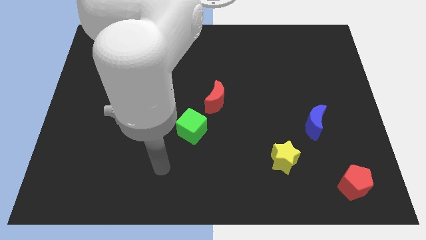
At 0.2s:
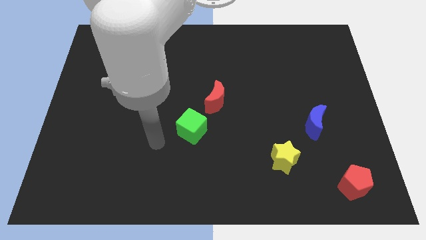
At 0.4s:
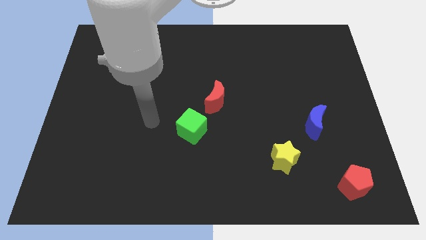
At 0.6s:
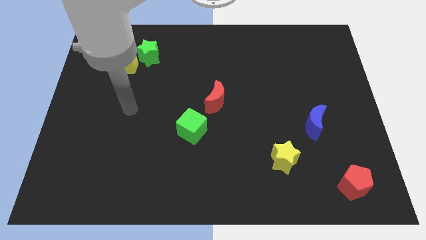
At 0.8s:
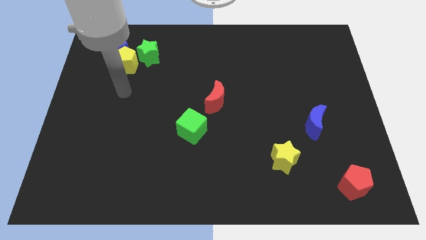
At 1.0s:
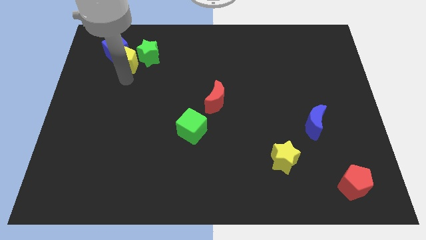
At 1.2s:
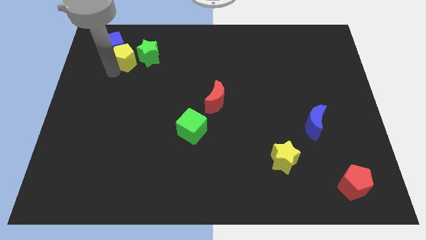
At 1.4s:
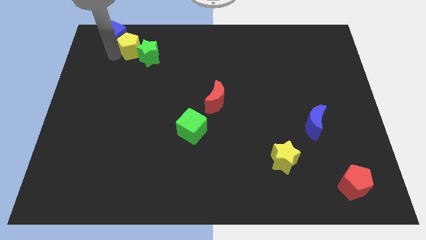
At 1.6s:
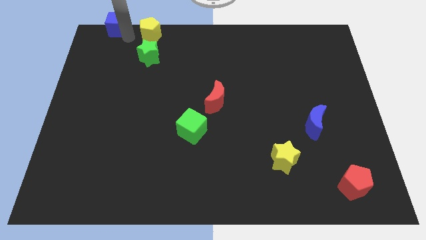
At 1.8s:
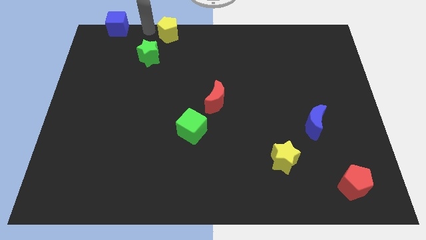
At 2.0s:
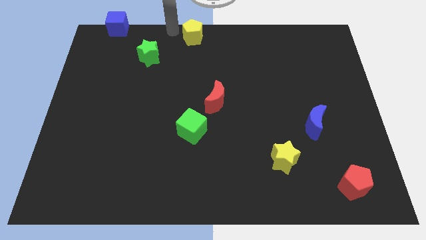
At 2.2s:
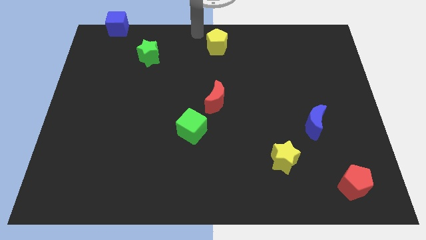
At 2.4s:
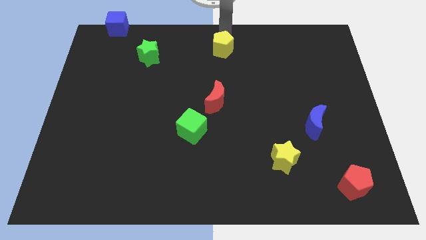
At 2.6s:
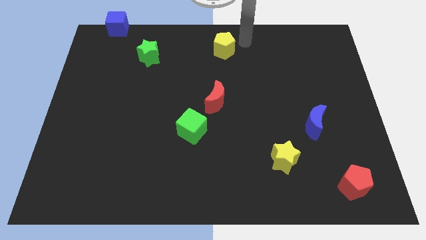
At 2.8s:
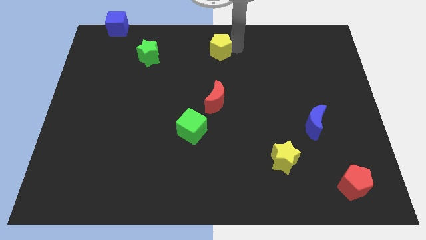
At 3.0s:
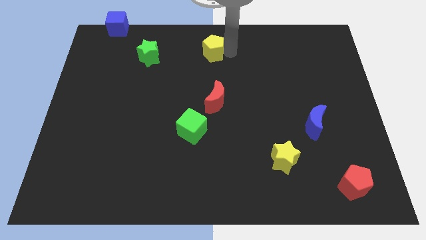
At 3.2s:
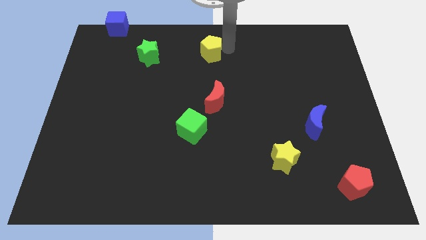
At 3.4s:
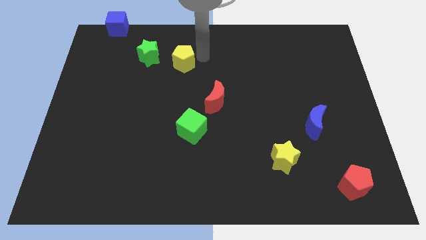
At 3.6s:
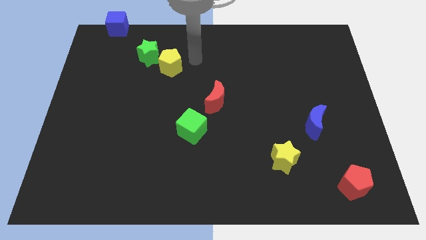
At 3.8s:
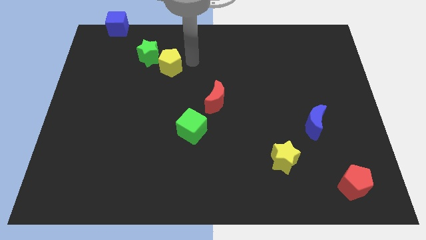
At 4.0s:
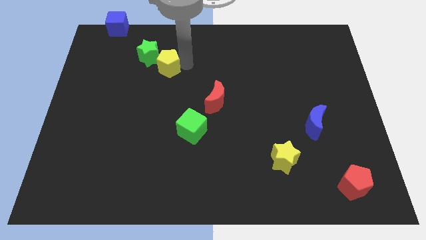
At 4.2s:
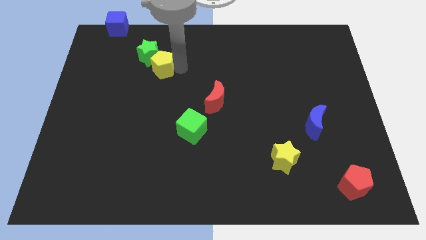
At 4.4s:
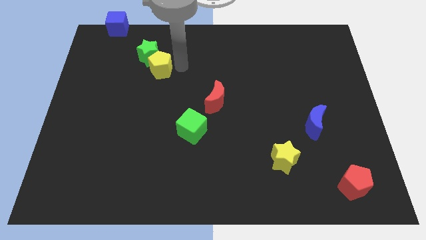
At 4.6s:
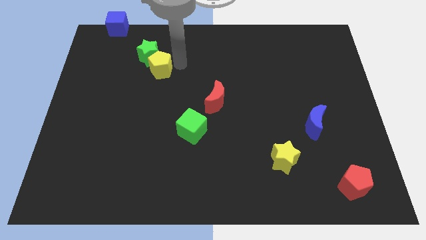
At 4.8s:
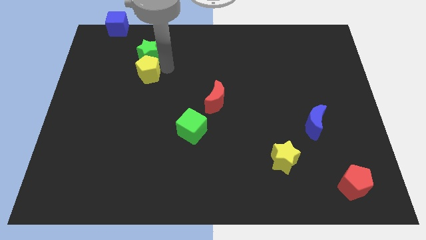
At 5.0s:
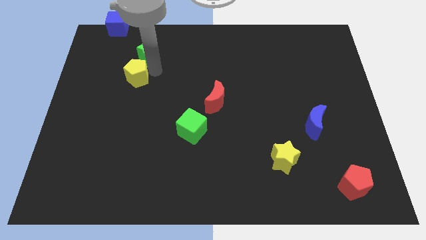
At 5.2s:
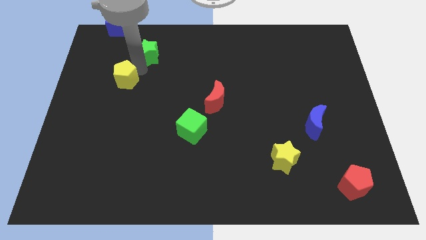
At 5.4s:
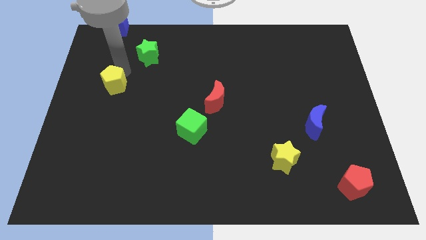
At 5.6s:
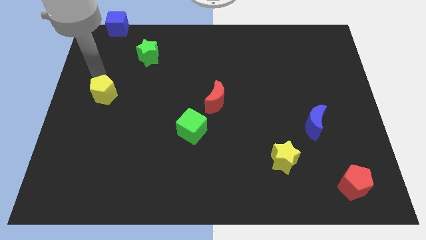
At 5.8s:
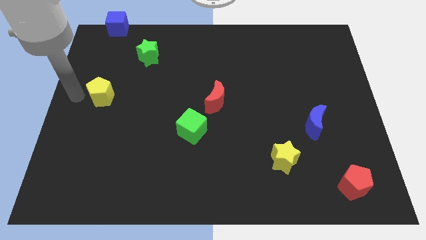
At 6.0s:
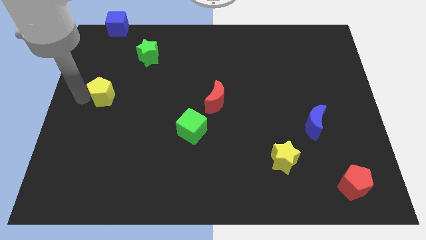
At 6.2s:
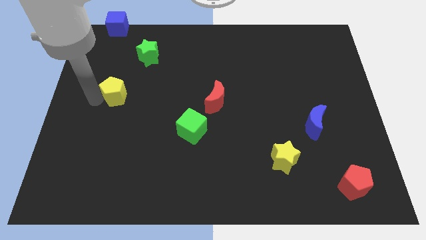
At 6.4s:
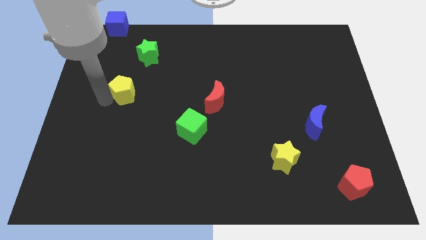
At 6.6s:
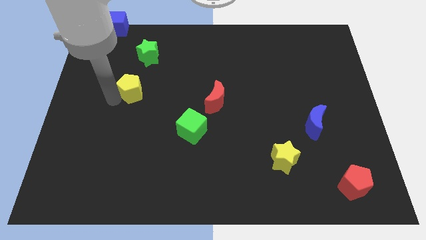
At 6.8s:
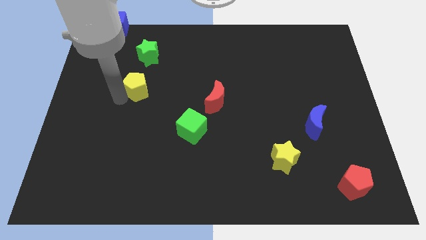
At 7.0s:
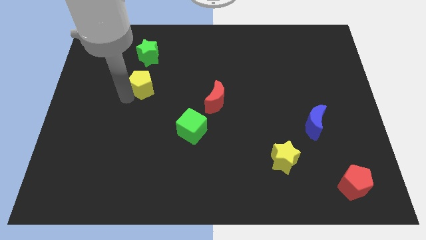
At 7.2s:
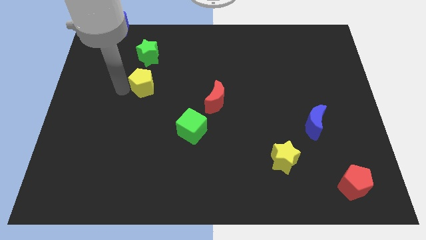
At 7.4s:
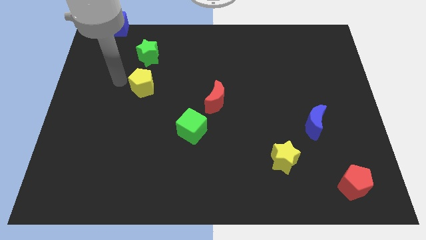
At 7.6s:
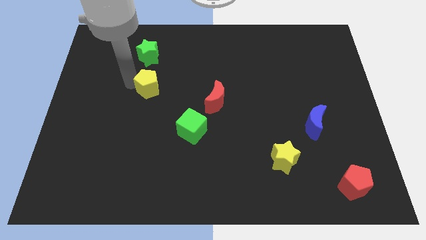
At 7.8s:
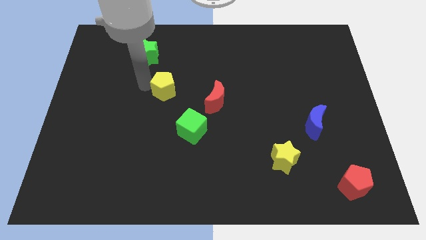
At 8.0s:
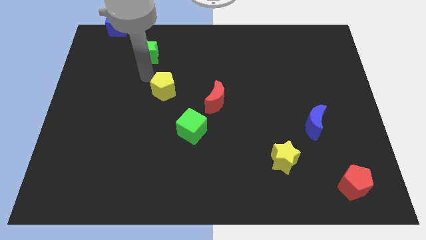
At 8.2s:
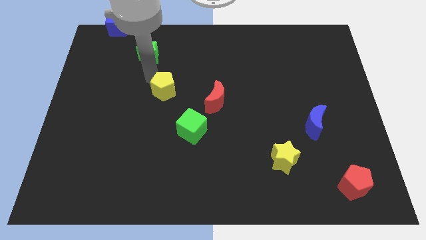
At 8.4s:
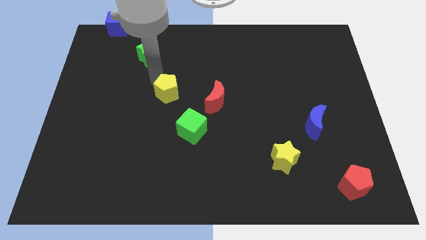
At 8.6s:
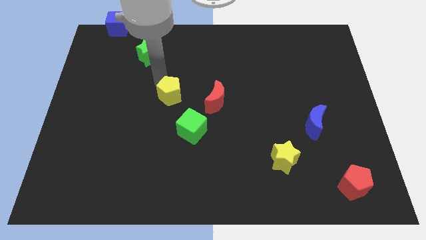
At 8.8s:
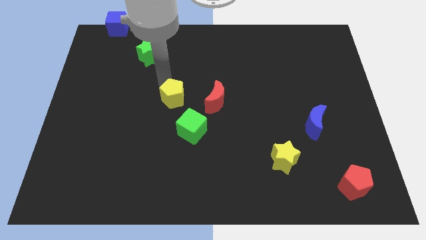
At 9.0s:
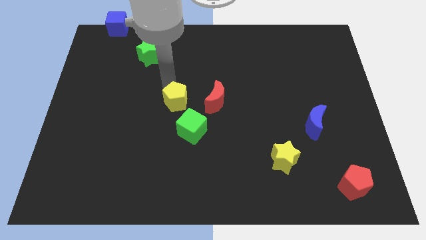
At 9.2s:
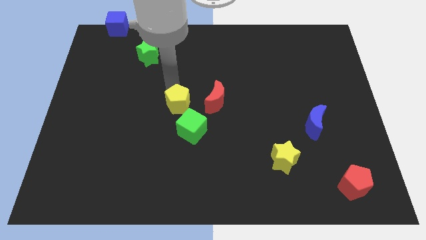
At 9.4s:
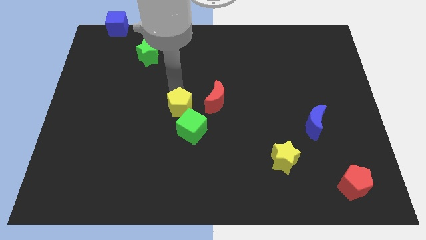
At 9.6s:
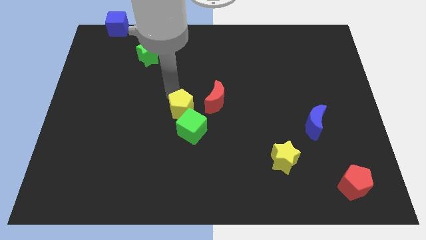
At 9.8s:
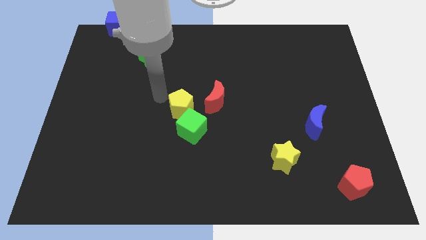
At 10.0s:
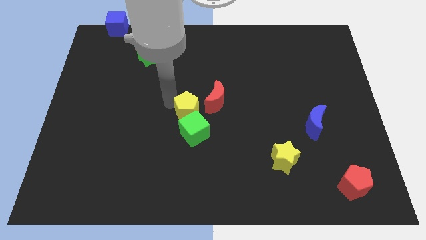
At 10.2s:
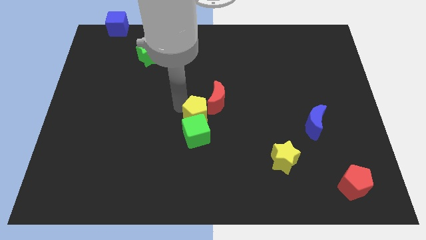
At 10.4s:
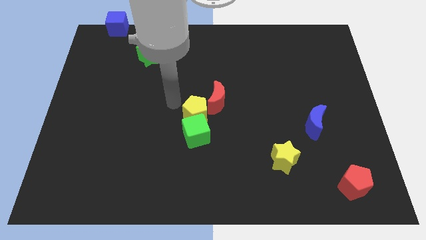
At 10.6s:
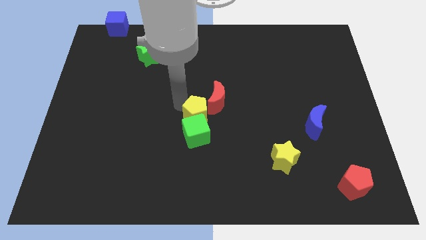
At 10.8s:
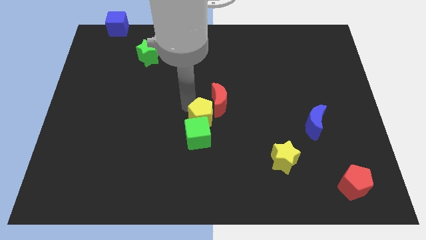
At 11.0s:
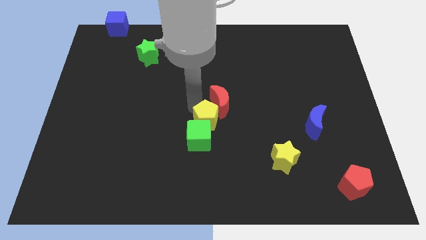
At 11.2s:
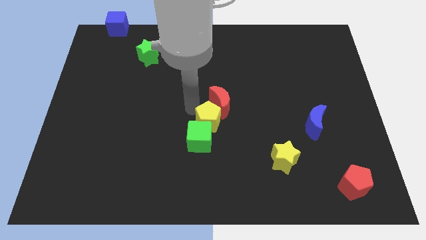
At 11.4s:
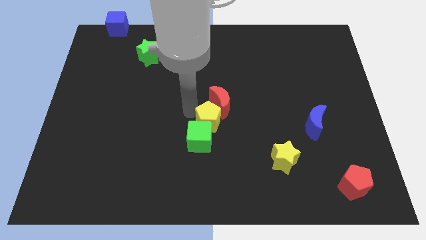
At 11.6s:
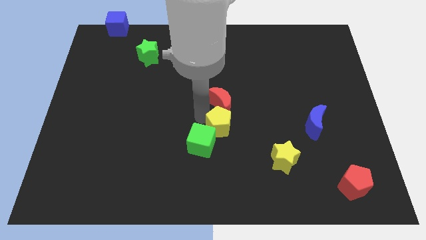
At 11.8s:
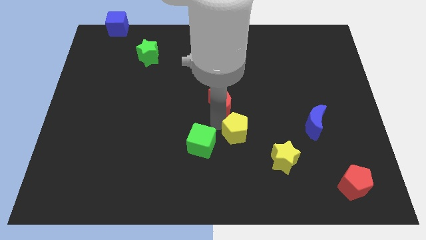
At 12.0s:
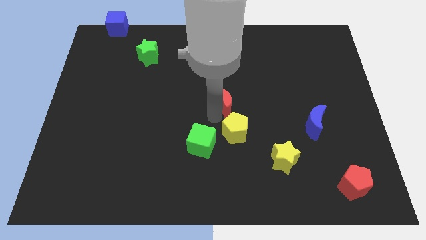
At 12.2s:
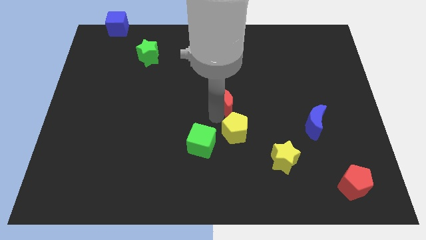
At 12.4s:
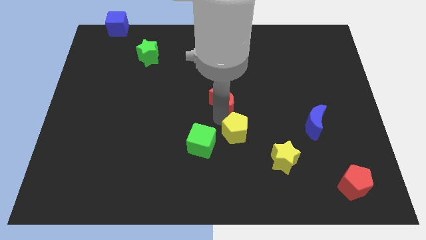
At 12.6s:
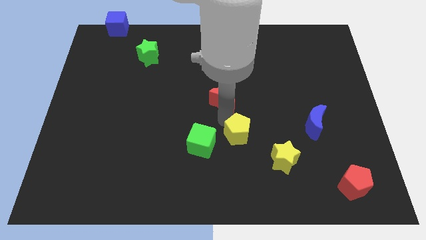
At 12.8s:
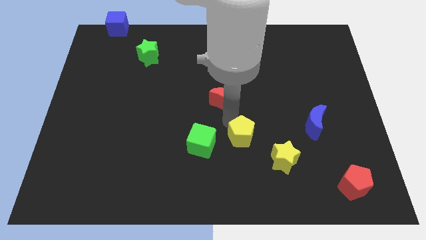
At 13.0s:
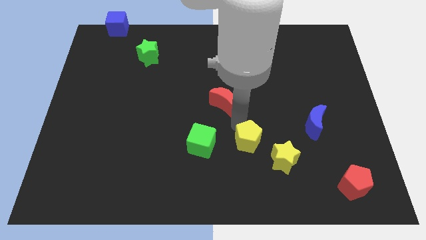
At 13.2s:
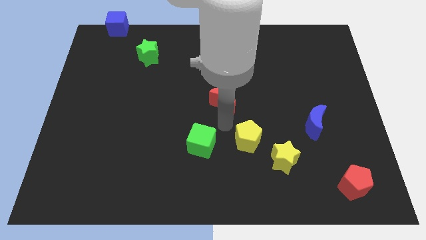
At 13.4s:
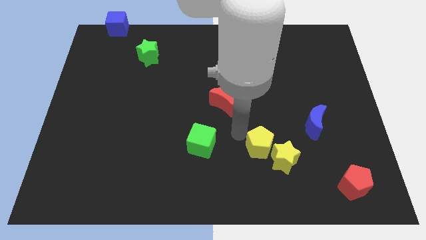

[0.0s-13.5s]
put the yellow pentagon close to the yellow star
